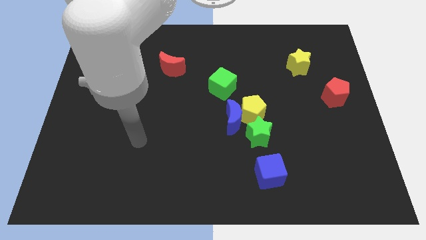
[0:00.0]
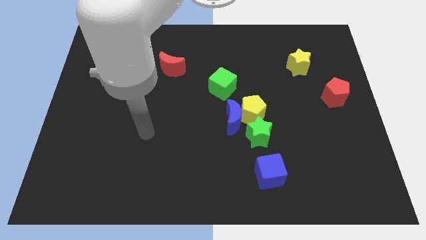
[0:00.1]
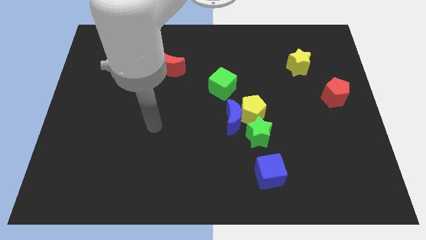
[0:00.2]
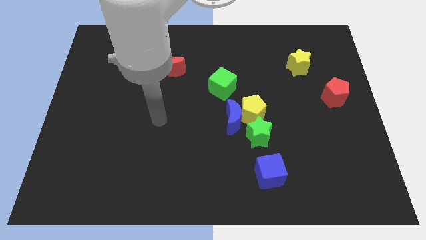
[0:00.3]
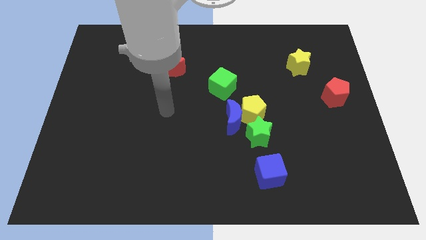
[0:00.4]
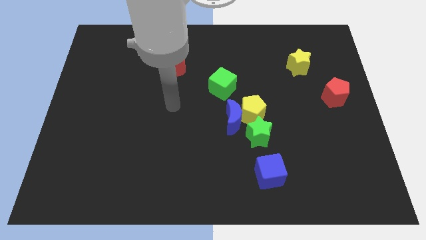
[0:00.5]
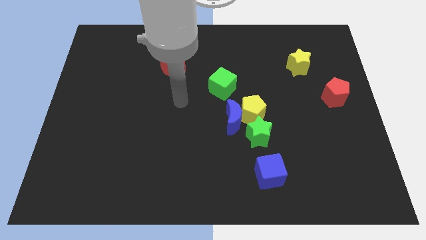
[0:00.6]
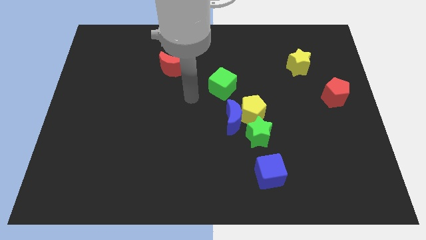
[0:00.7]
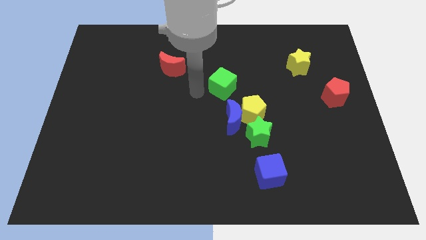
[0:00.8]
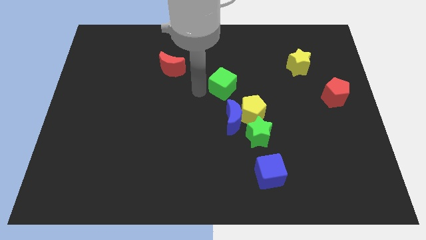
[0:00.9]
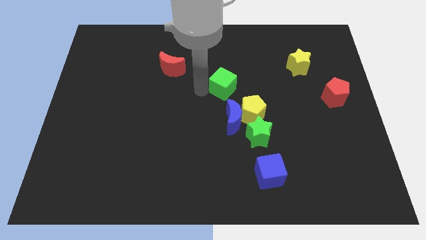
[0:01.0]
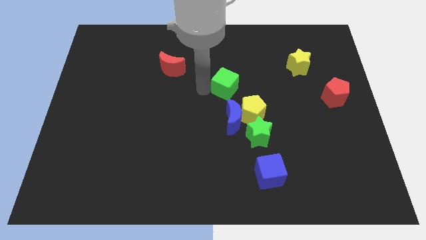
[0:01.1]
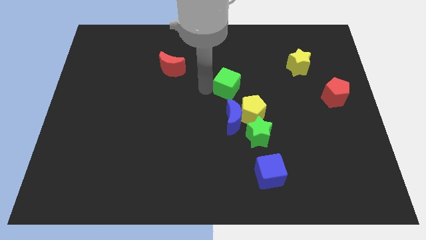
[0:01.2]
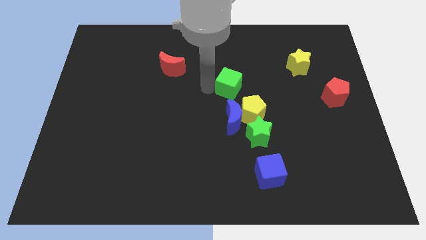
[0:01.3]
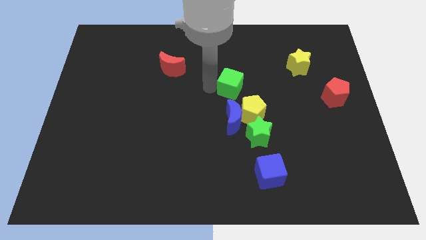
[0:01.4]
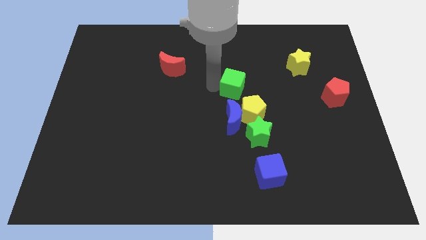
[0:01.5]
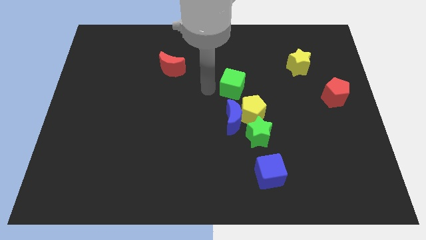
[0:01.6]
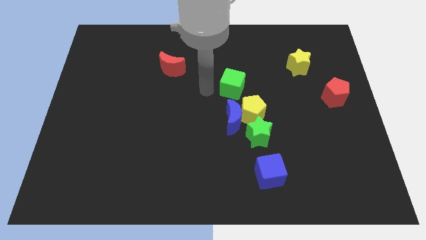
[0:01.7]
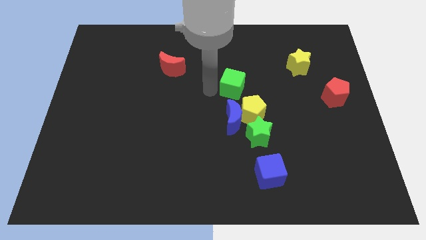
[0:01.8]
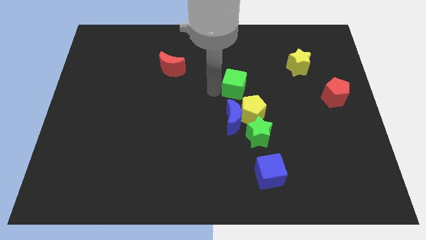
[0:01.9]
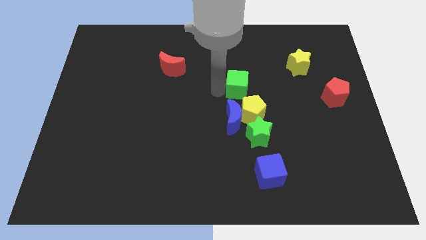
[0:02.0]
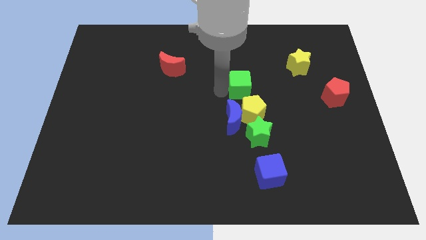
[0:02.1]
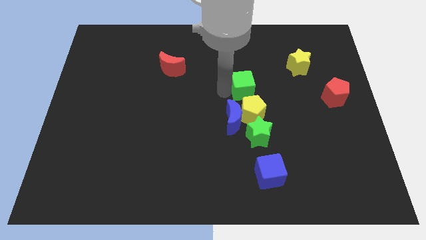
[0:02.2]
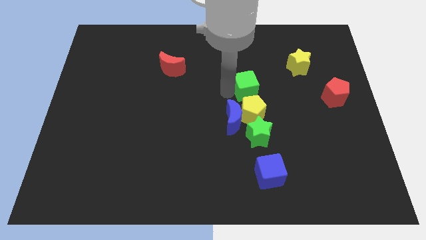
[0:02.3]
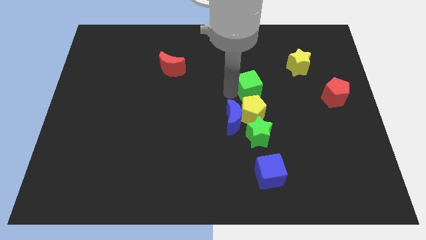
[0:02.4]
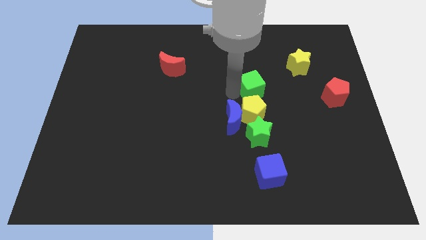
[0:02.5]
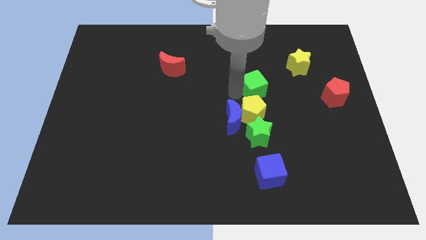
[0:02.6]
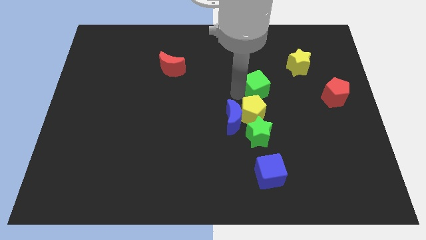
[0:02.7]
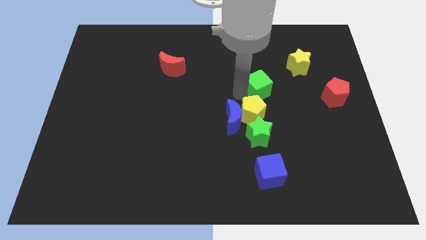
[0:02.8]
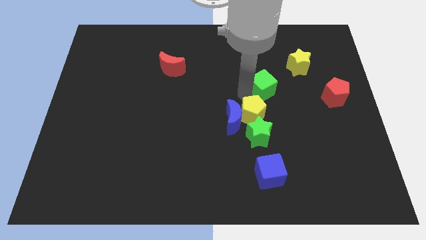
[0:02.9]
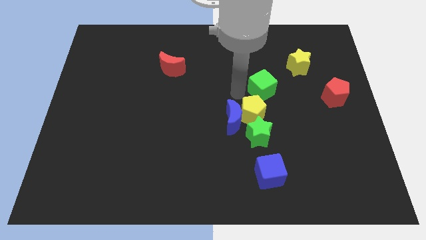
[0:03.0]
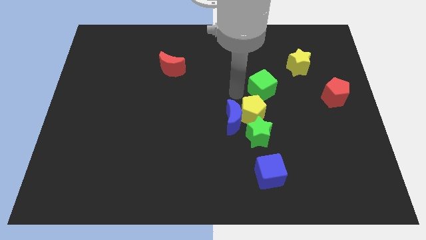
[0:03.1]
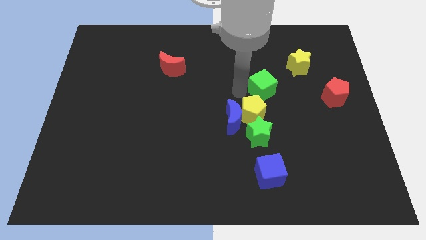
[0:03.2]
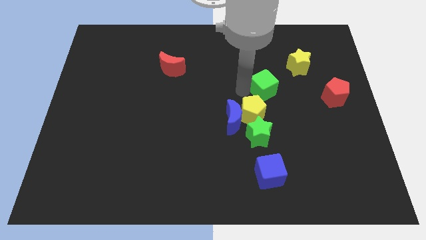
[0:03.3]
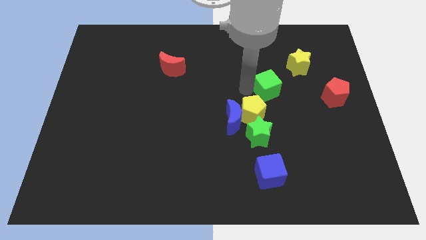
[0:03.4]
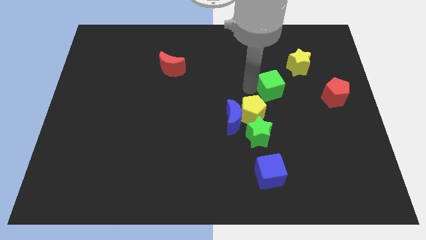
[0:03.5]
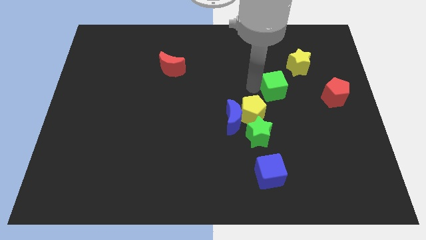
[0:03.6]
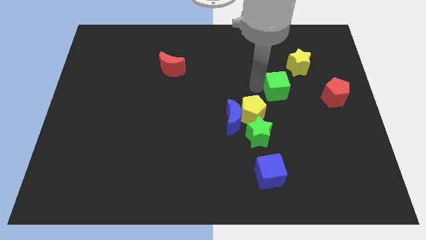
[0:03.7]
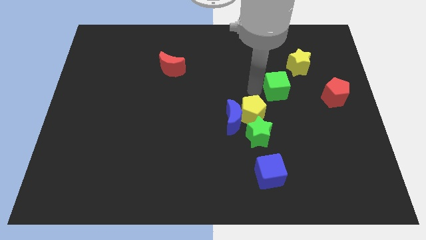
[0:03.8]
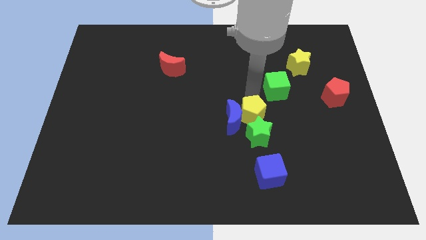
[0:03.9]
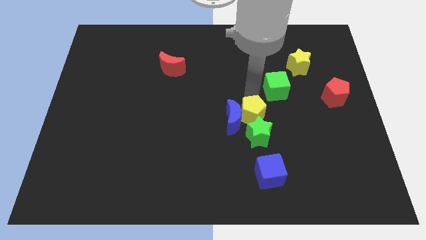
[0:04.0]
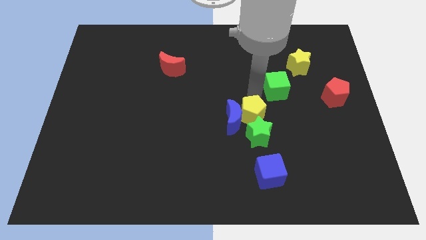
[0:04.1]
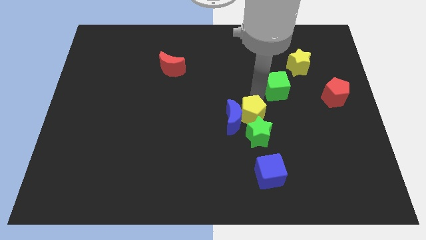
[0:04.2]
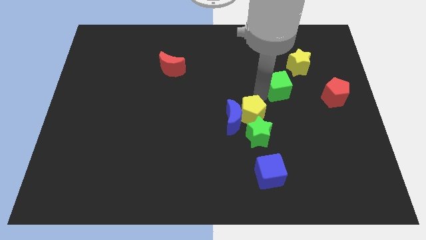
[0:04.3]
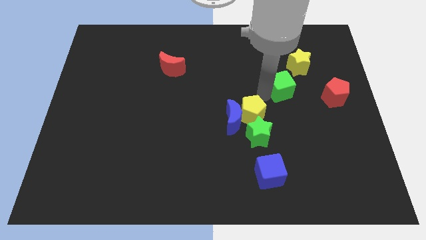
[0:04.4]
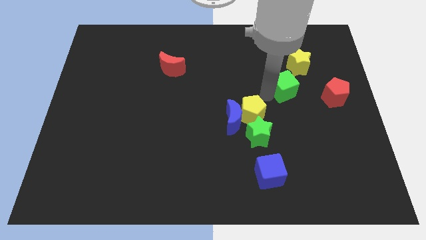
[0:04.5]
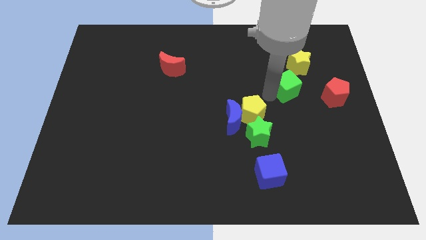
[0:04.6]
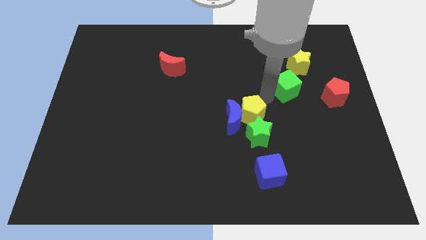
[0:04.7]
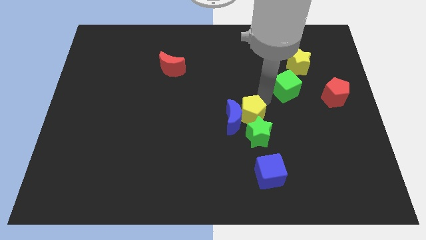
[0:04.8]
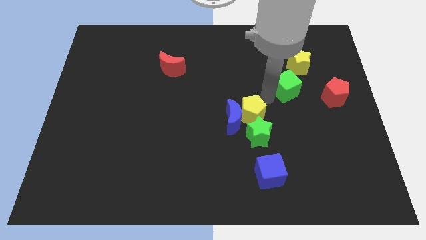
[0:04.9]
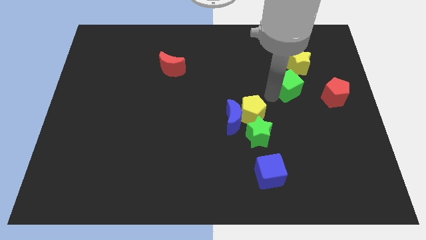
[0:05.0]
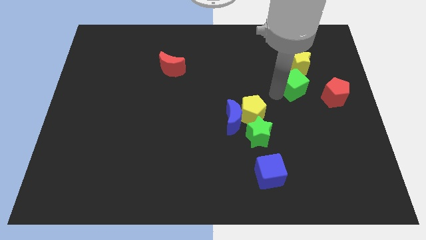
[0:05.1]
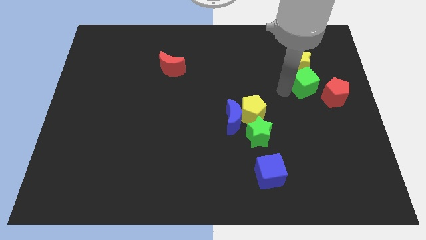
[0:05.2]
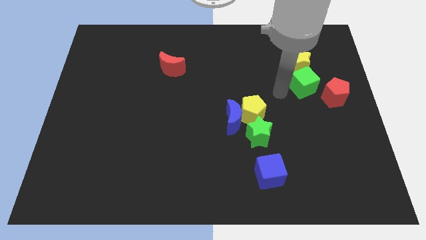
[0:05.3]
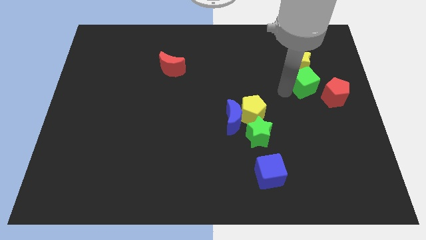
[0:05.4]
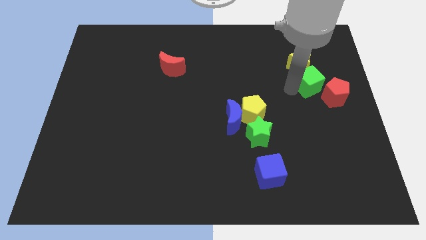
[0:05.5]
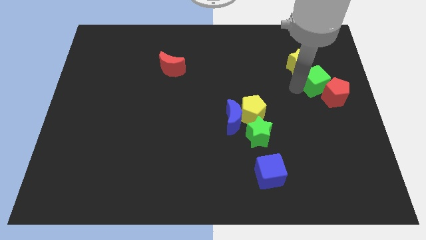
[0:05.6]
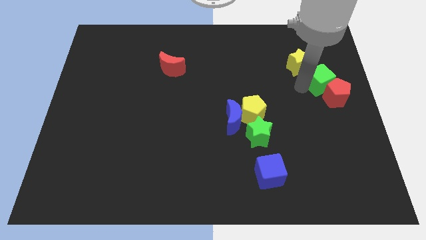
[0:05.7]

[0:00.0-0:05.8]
put the green cube to the right side
